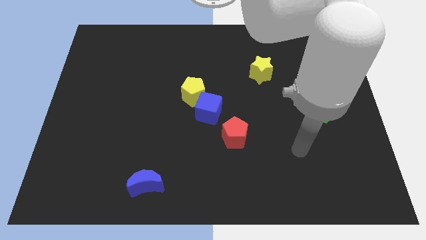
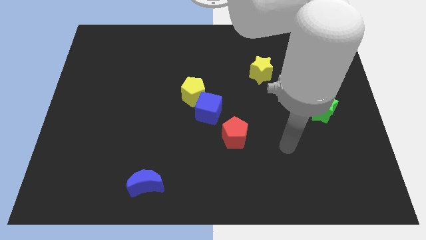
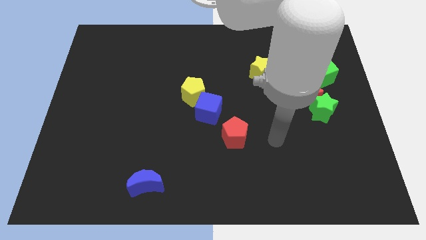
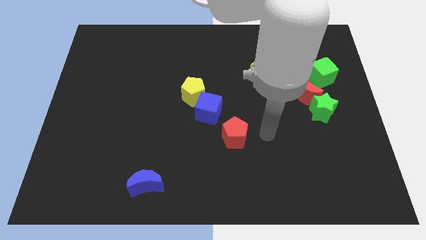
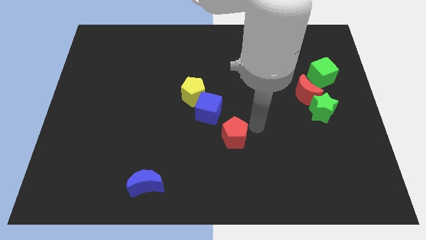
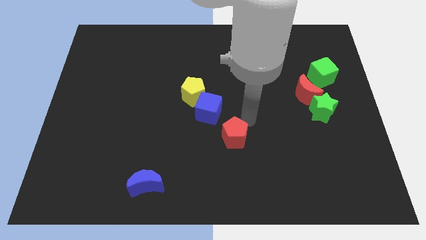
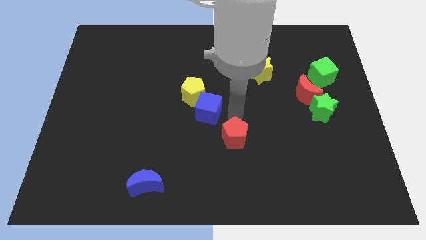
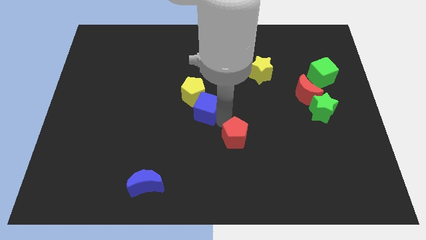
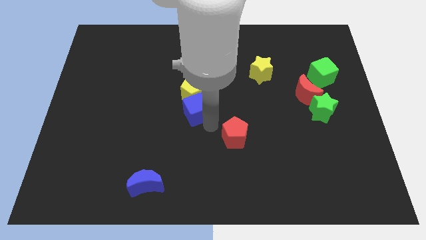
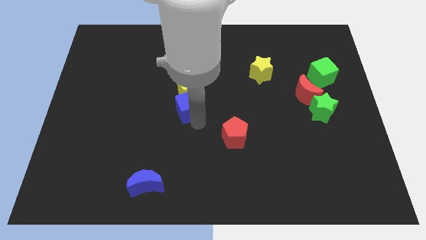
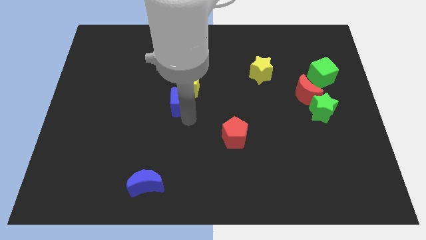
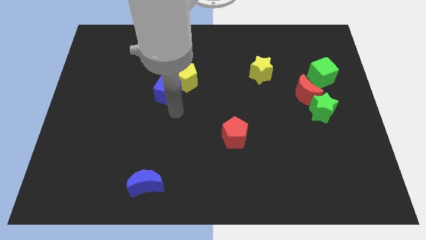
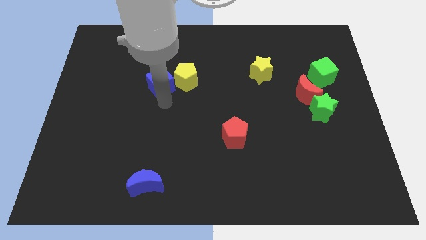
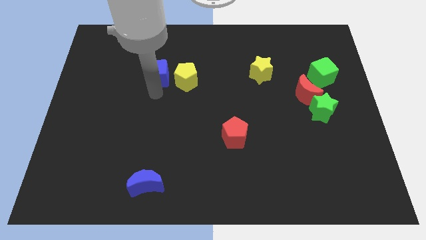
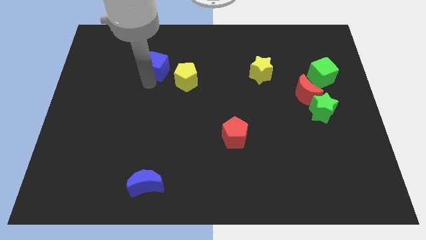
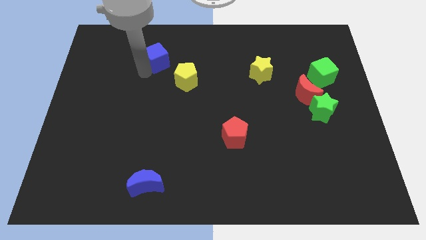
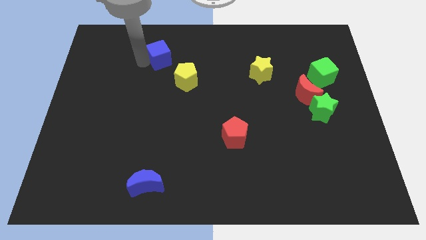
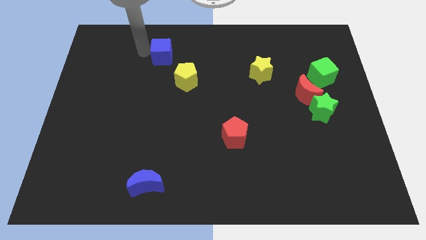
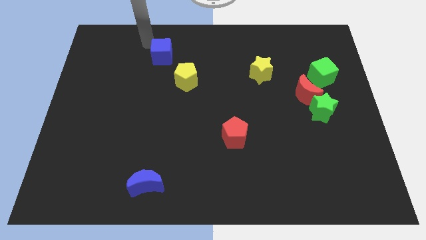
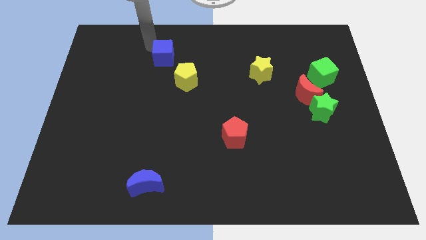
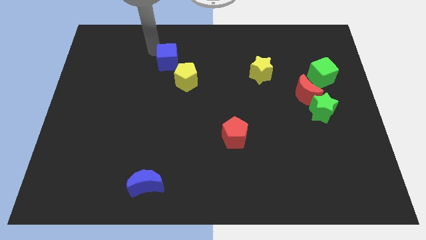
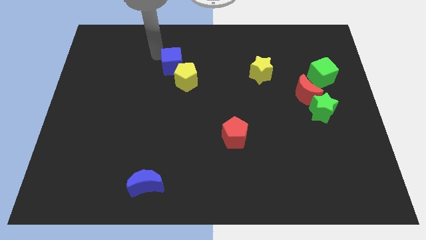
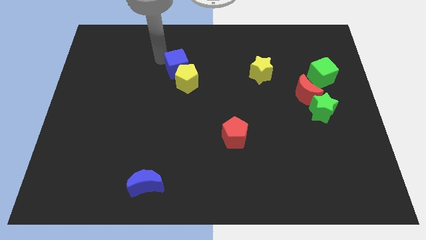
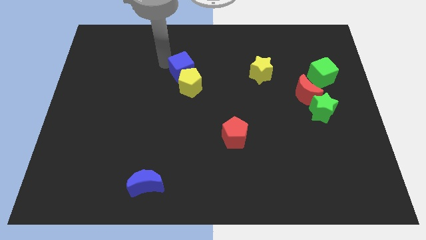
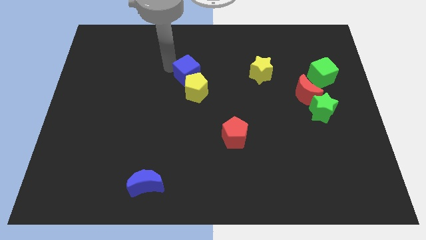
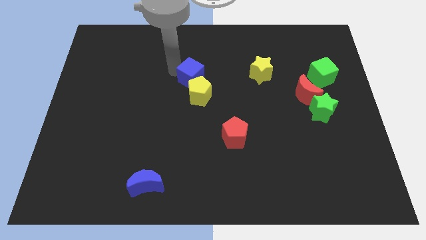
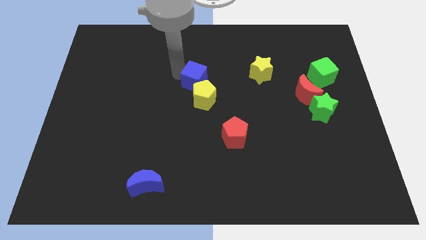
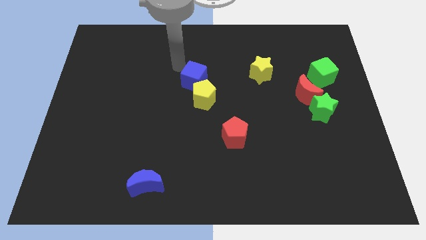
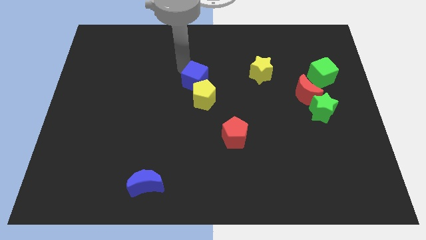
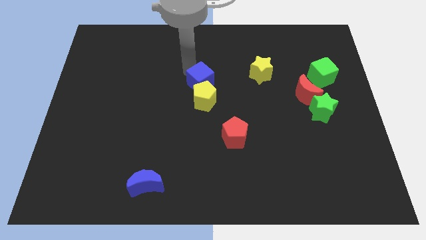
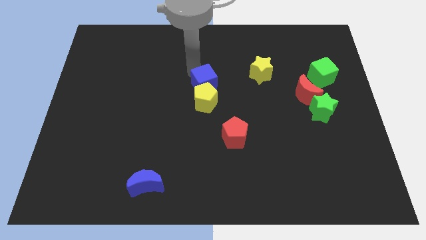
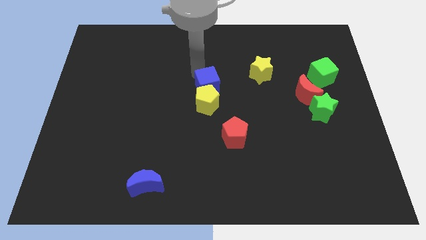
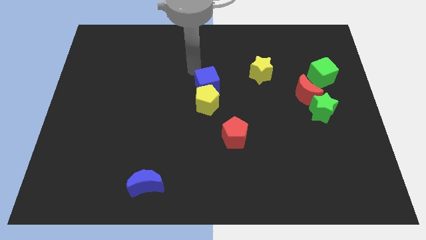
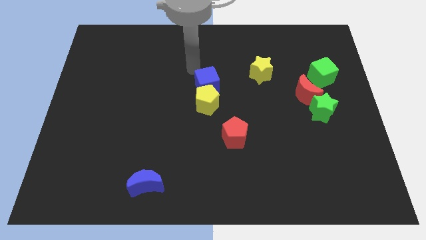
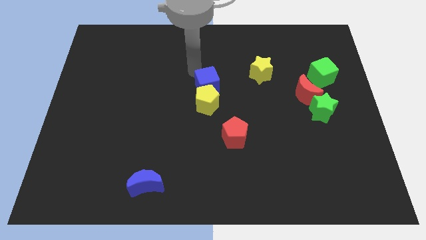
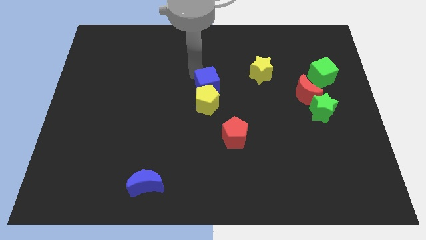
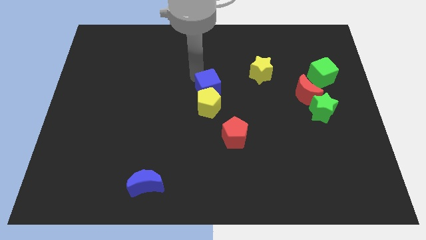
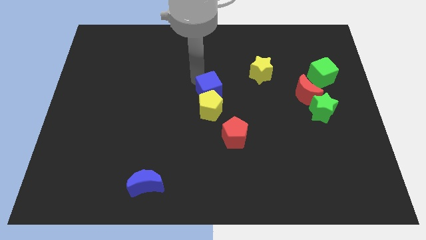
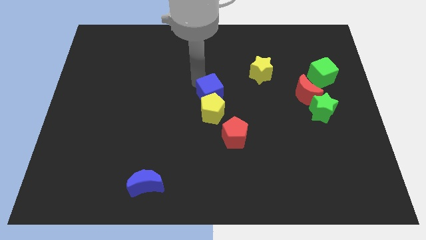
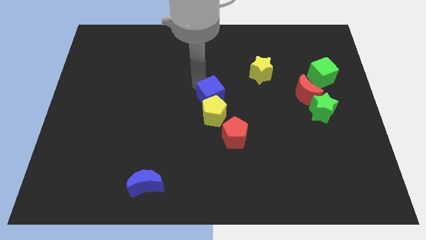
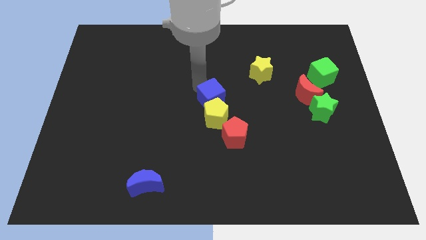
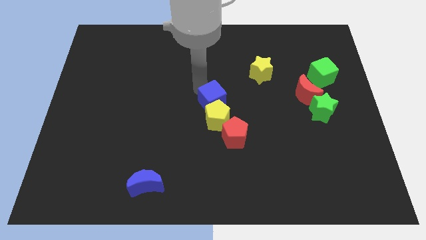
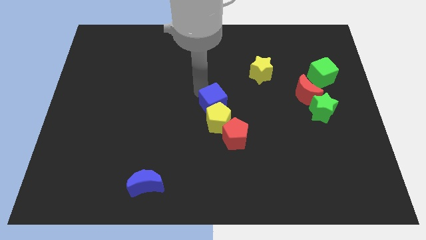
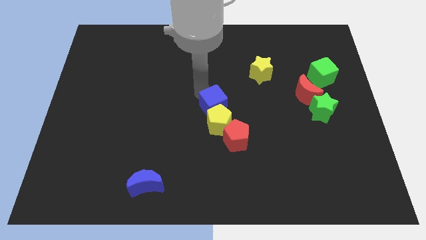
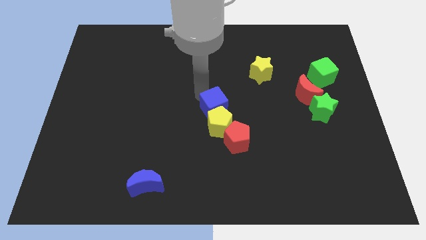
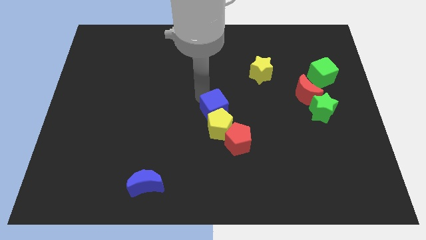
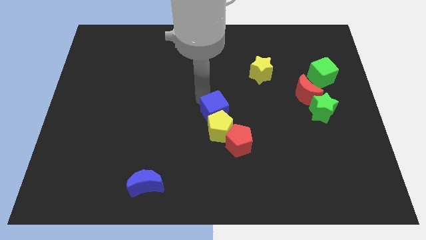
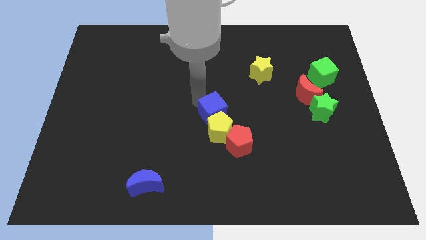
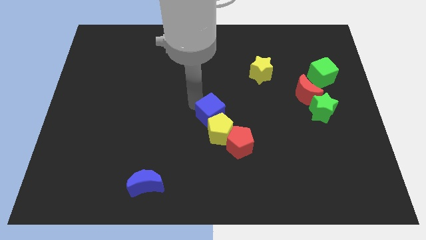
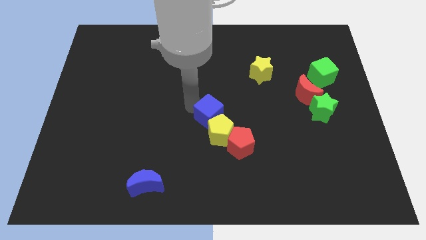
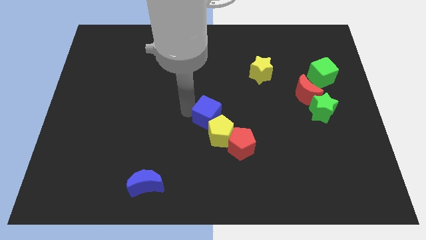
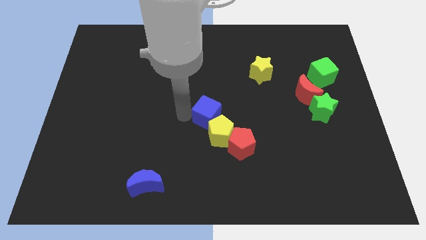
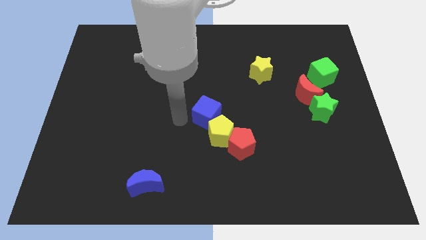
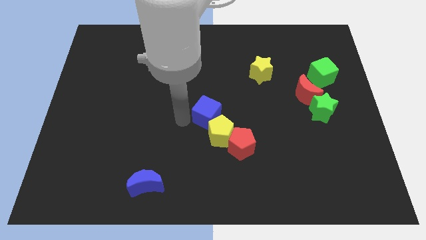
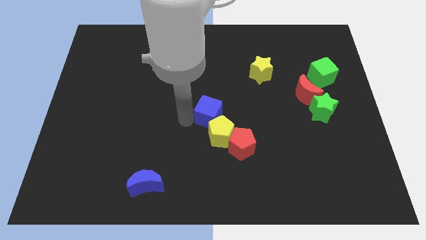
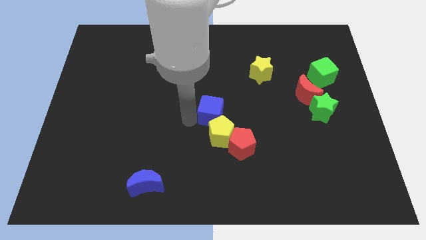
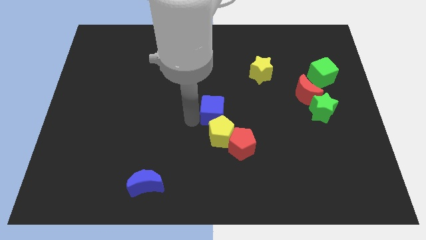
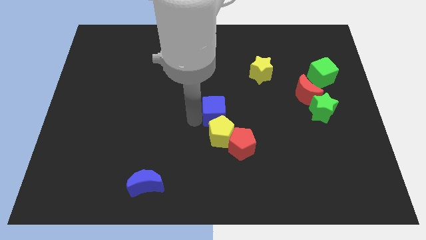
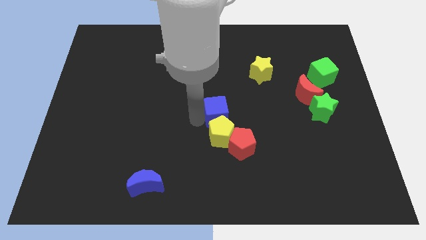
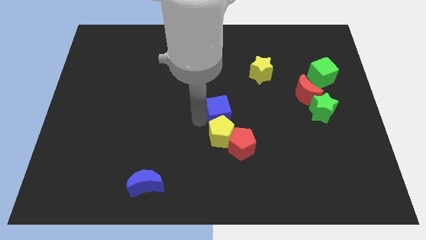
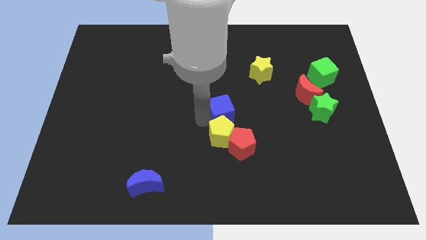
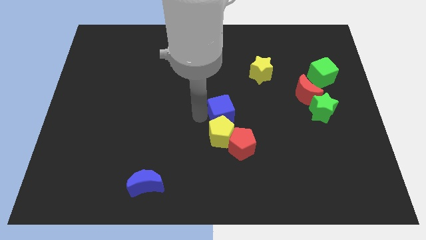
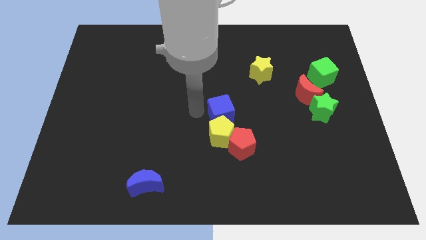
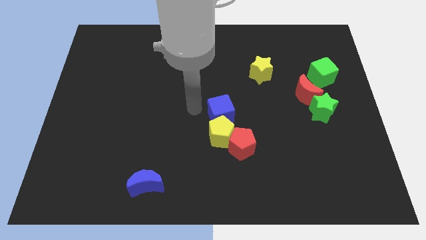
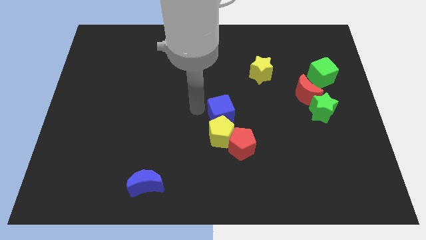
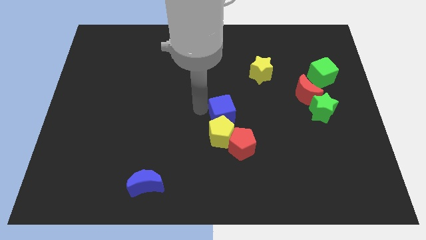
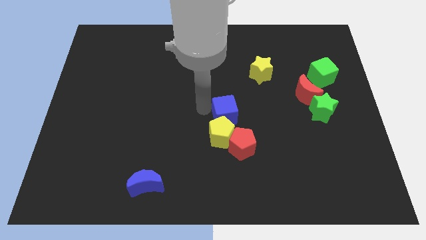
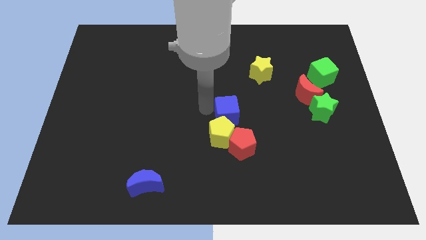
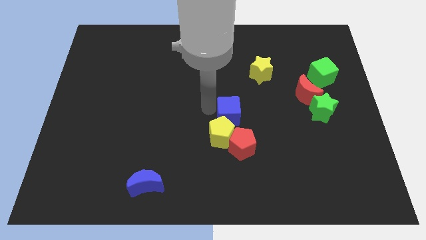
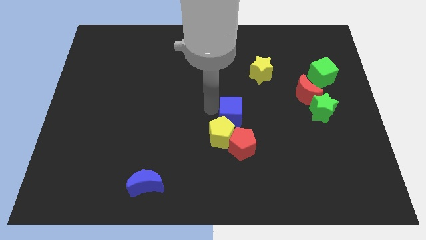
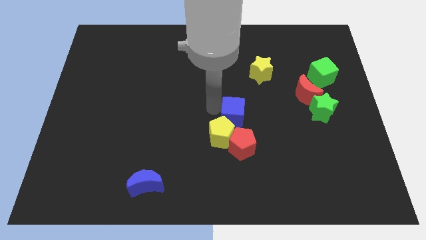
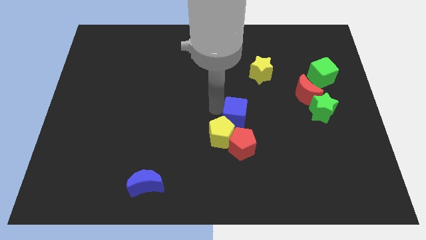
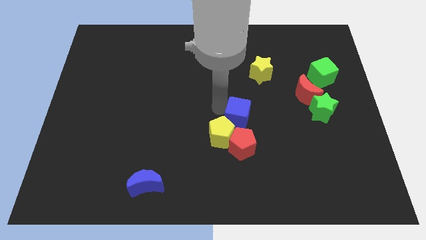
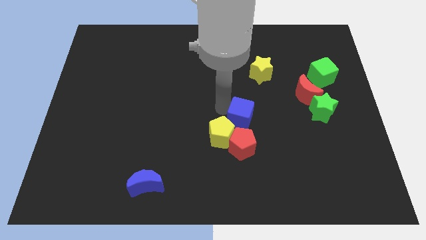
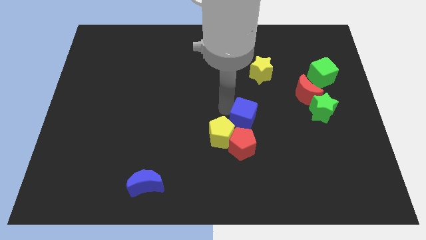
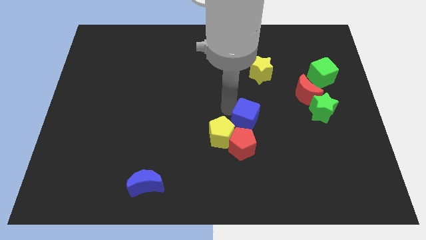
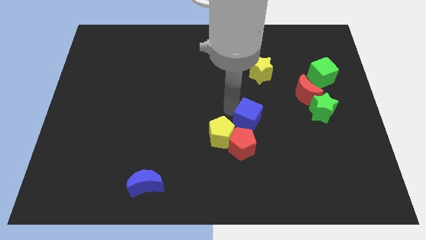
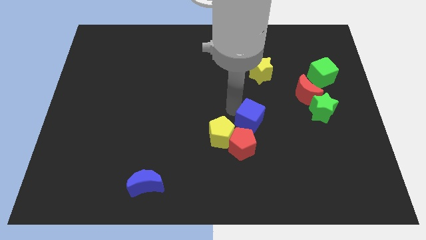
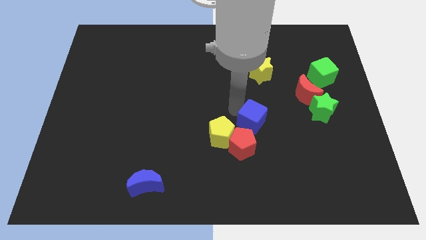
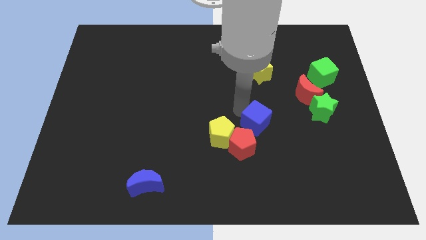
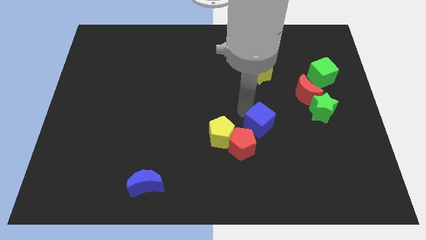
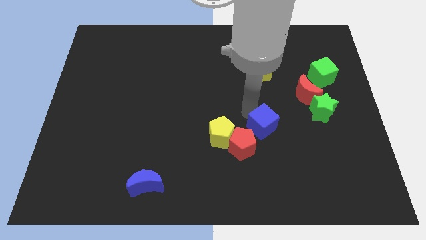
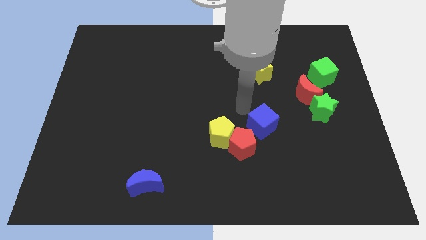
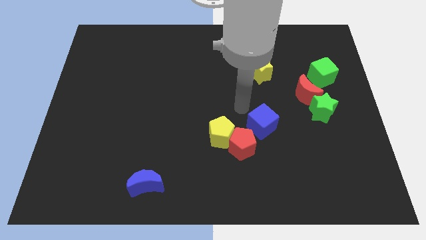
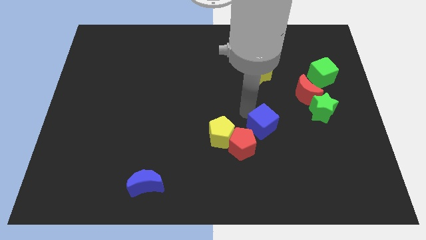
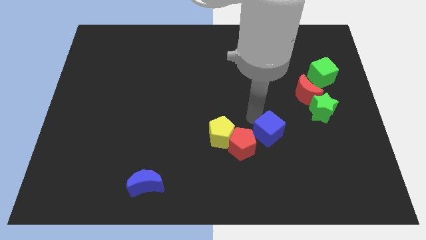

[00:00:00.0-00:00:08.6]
move the blue cube to the right side of the red pentagon
